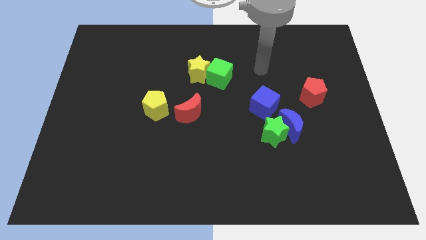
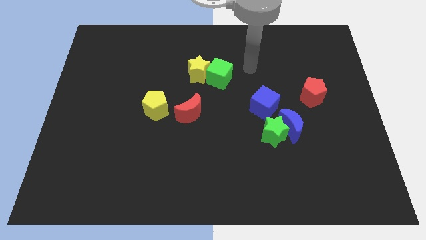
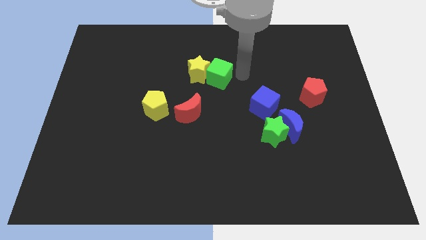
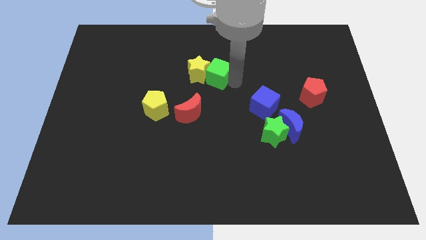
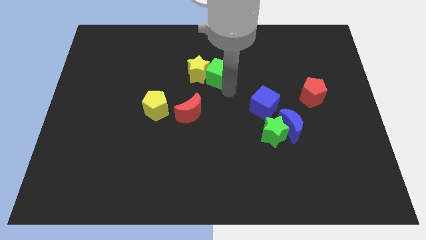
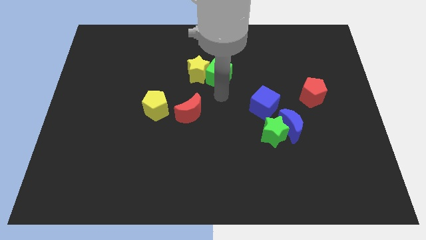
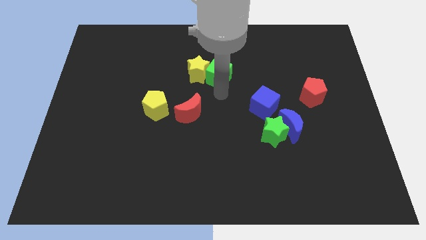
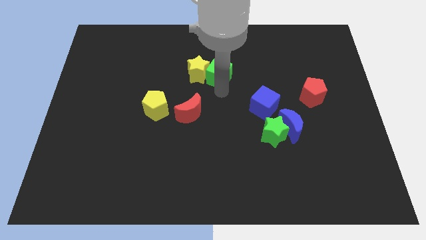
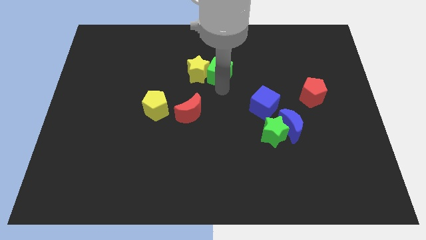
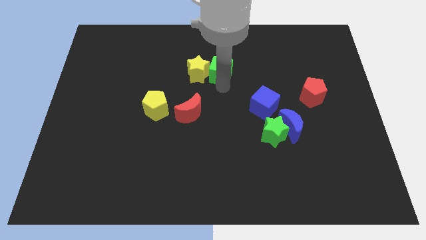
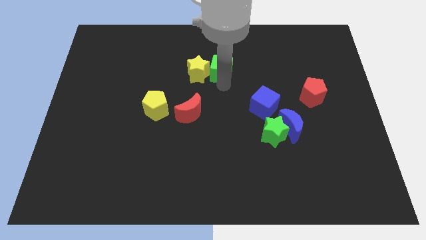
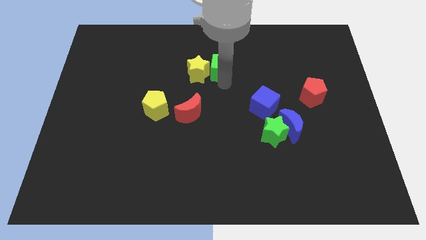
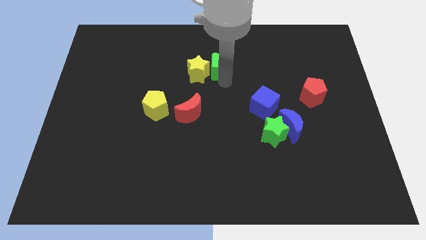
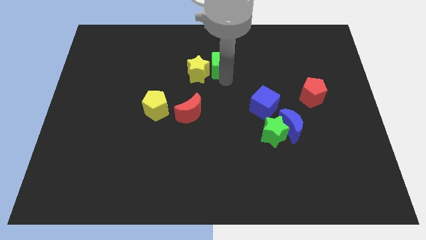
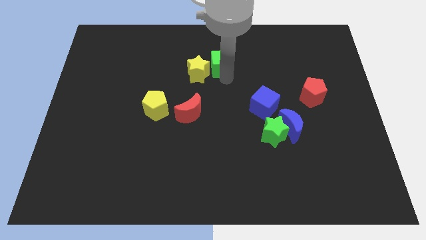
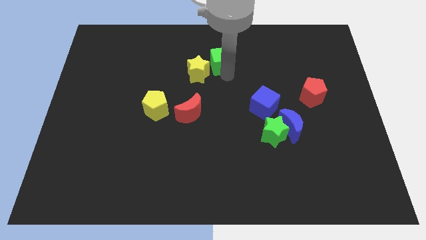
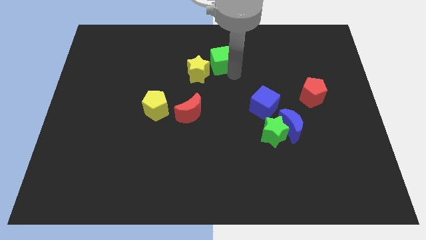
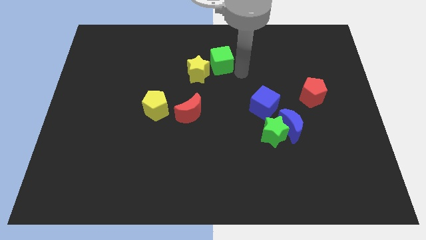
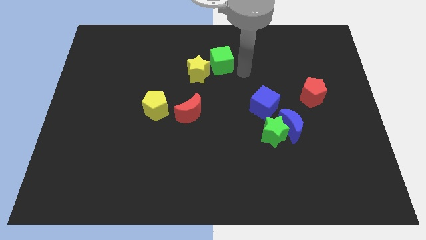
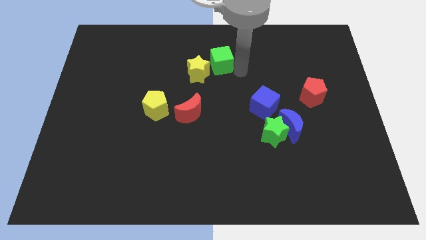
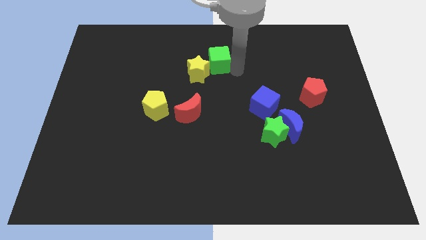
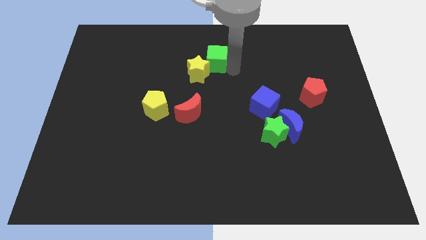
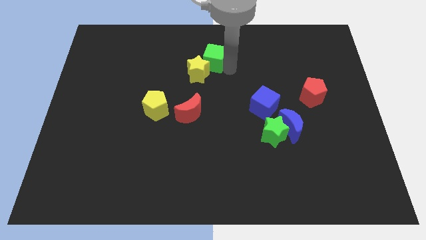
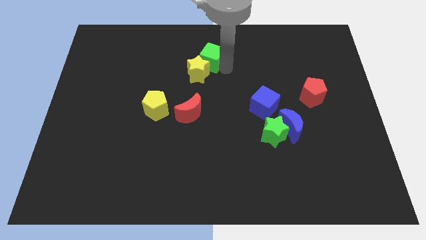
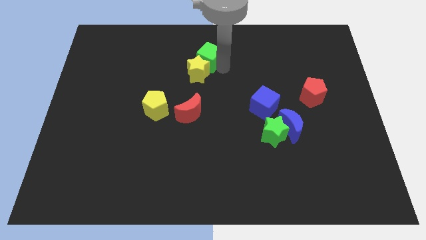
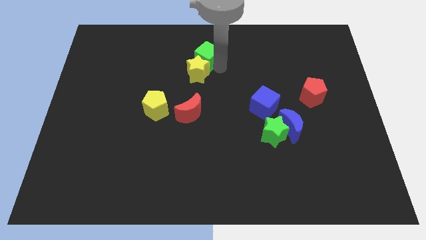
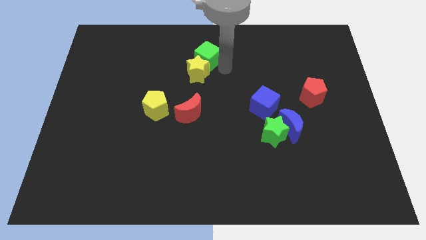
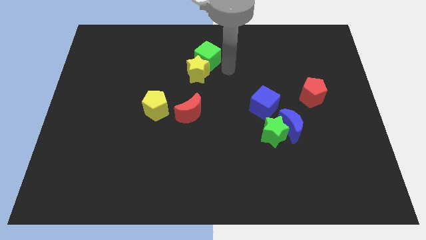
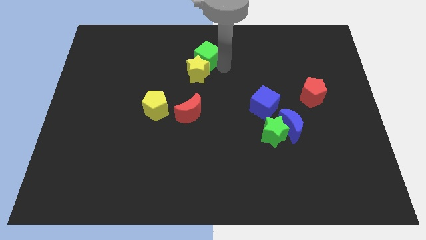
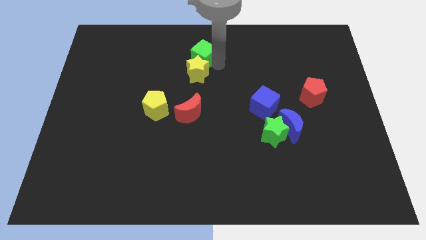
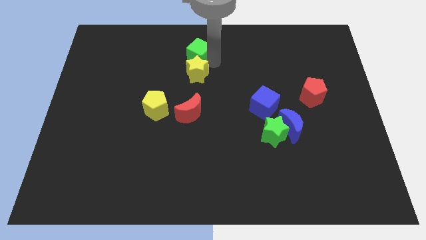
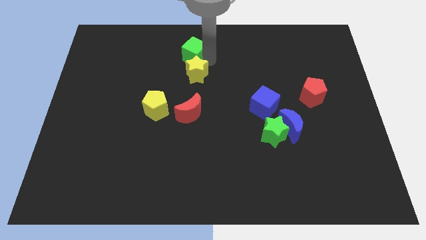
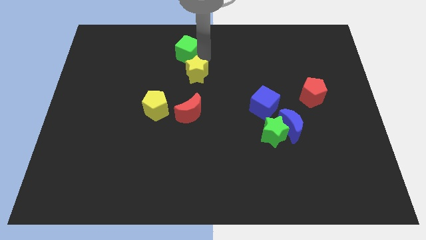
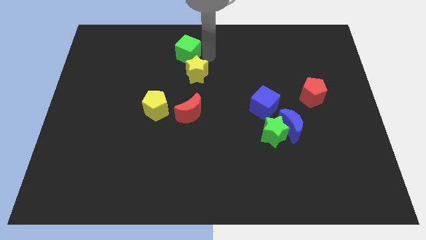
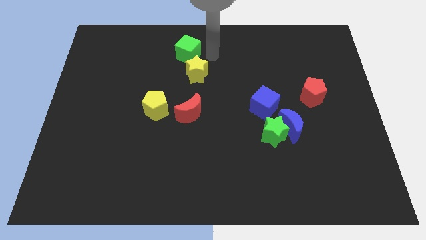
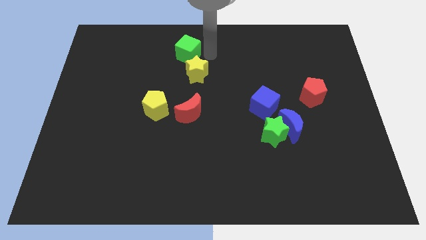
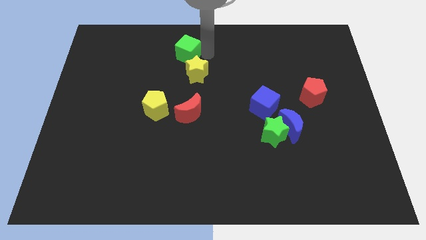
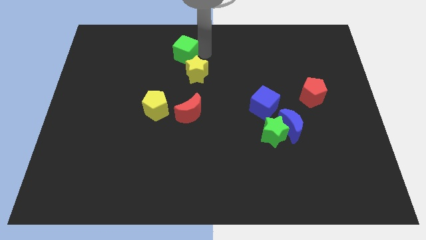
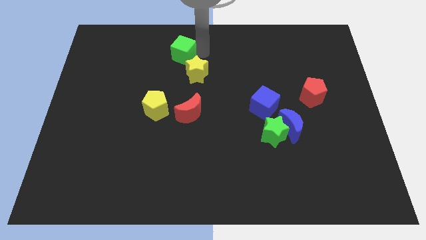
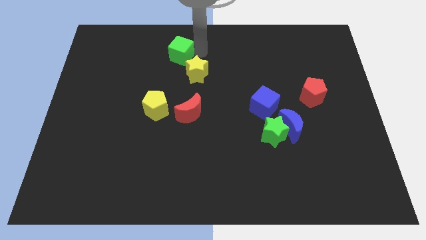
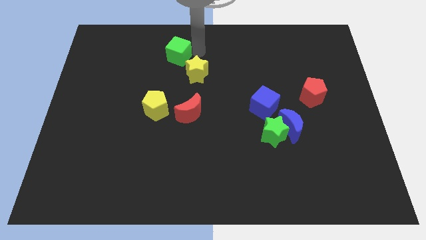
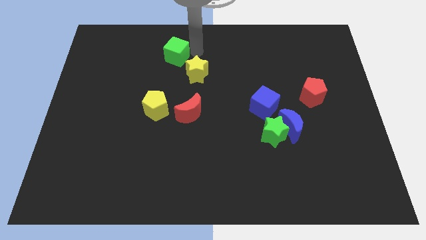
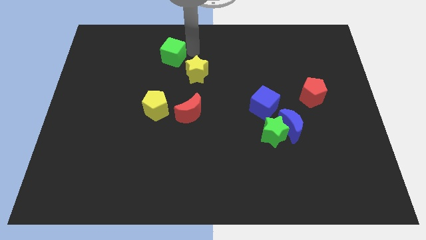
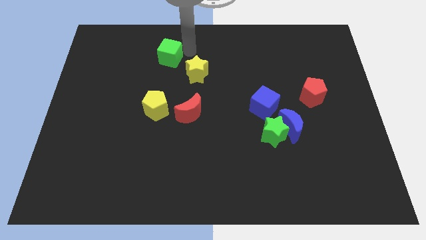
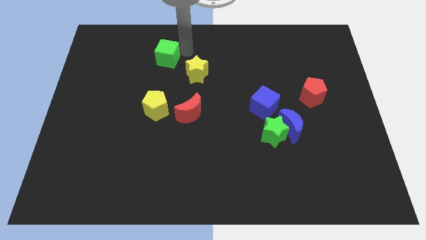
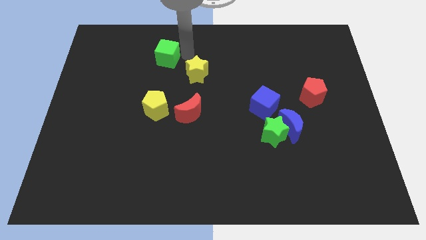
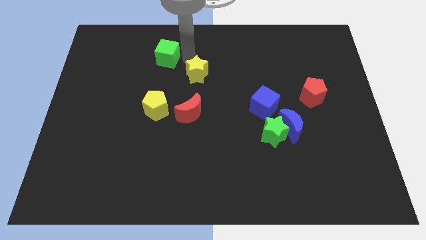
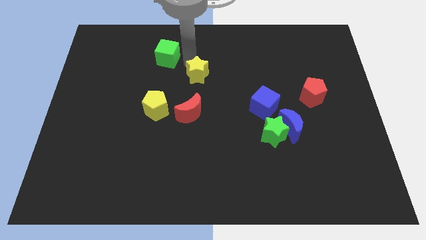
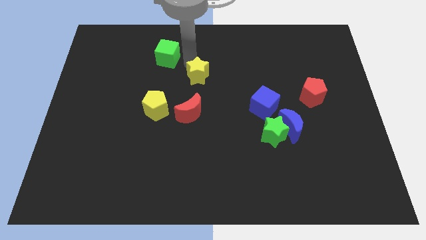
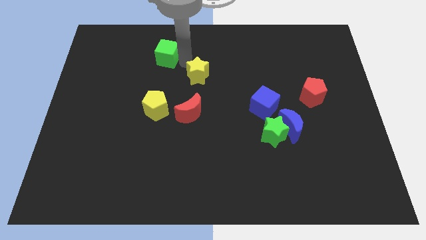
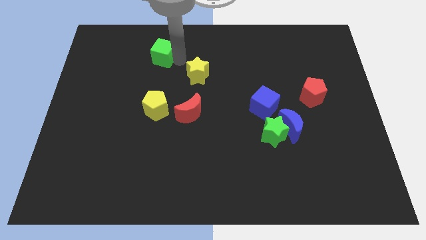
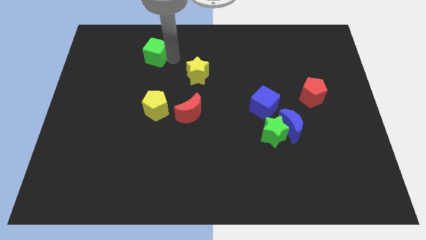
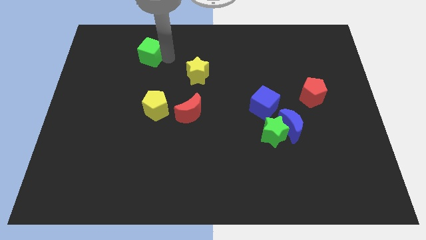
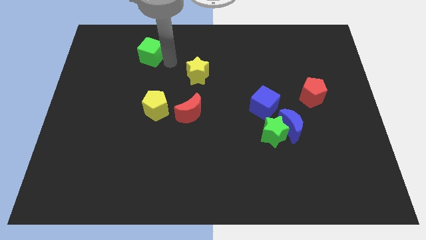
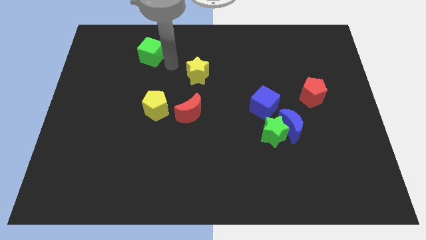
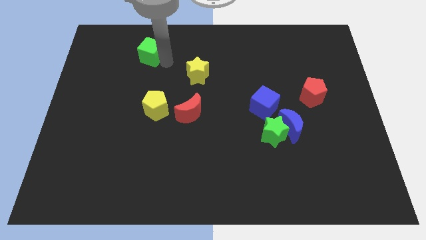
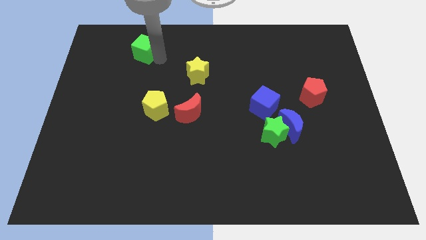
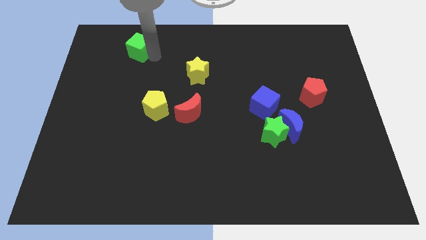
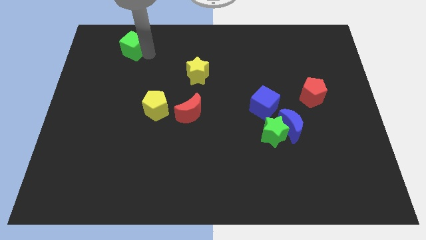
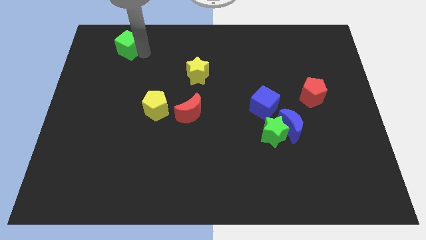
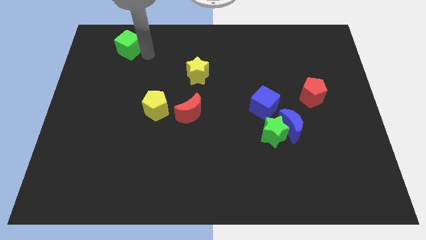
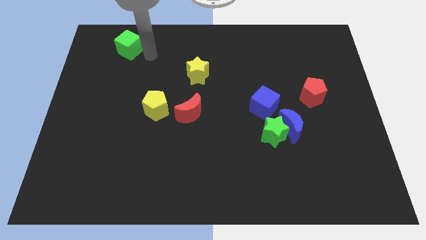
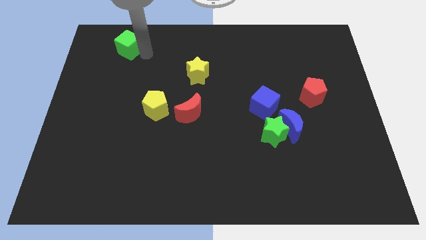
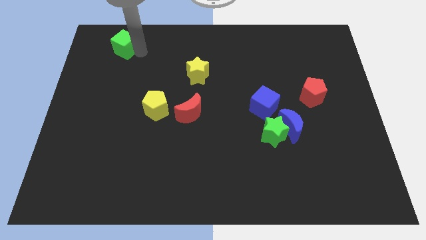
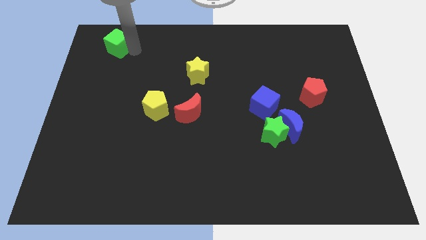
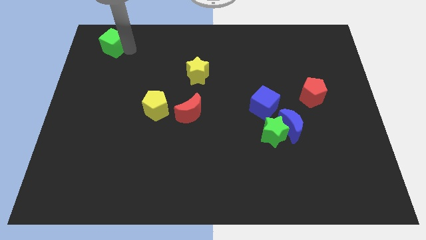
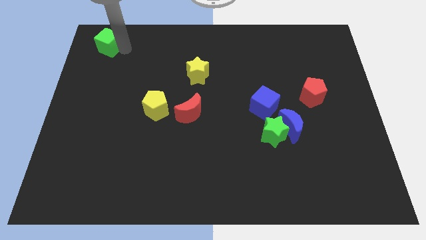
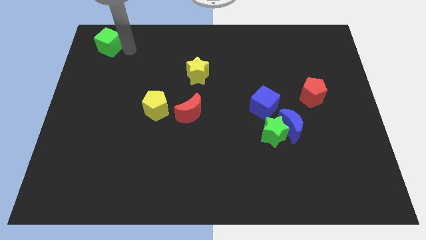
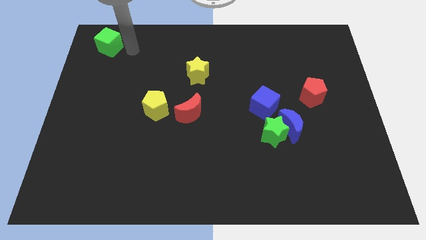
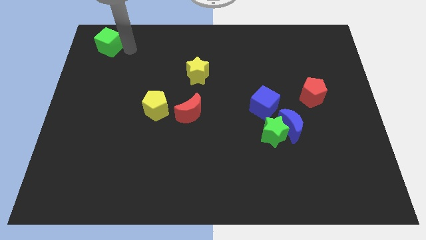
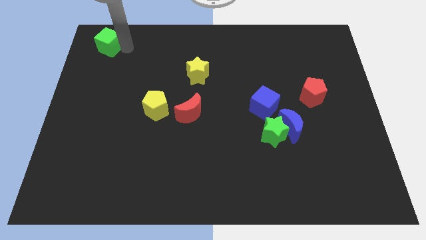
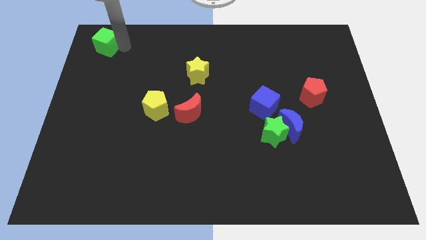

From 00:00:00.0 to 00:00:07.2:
push the green cube to the top left of the board
